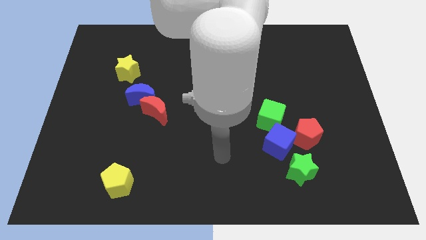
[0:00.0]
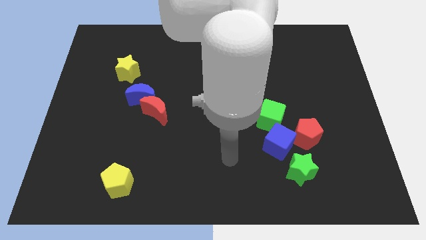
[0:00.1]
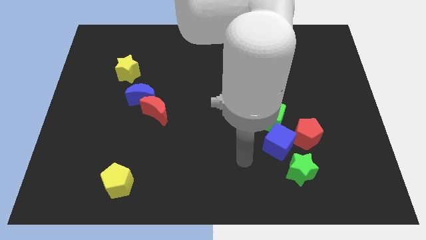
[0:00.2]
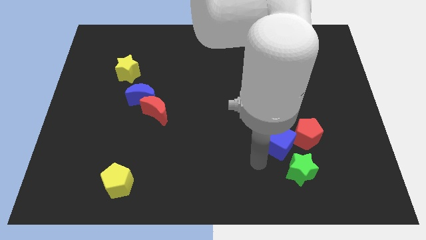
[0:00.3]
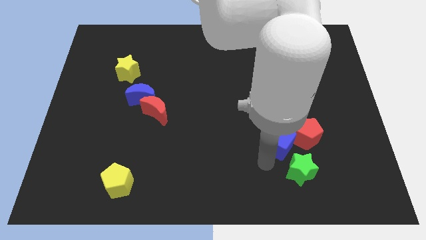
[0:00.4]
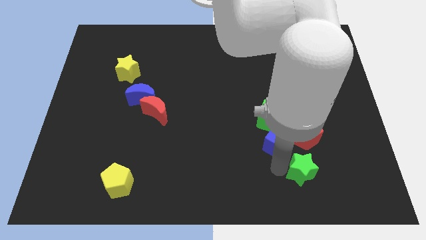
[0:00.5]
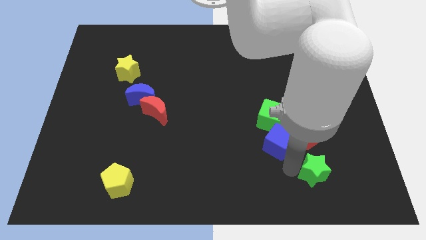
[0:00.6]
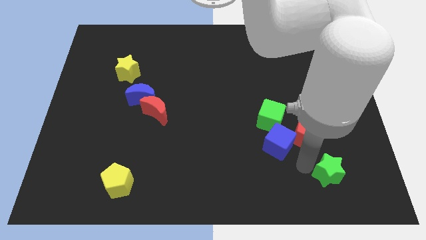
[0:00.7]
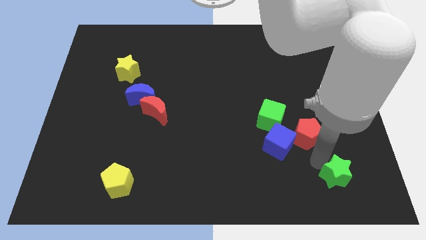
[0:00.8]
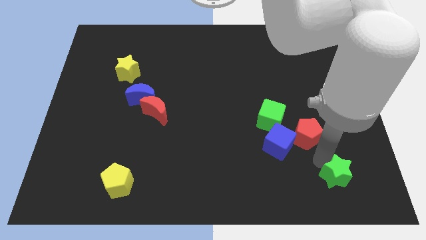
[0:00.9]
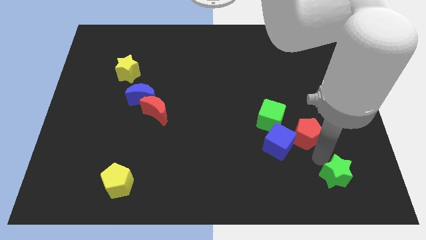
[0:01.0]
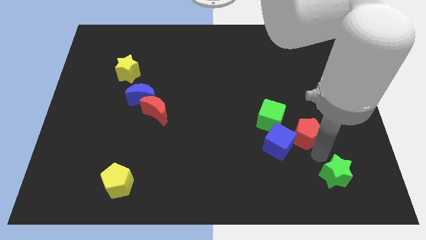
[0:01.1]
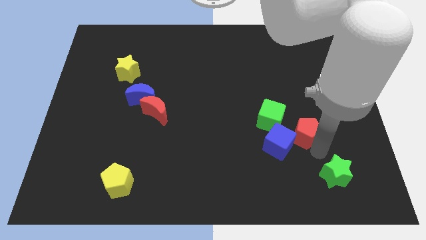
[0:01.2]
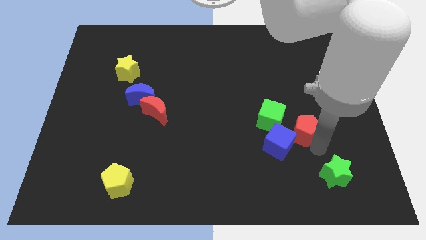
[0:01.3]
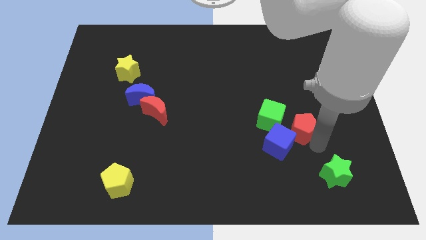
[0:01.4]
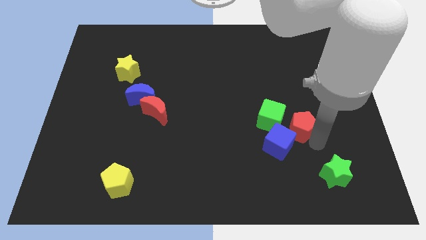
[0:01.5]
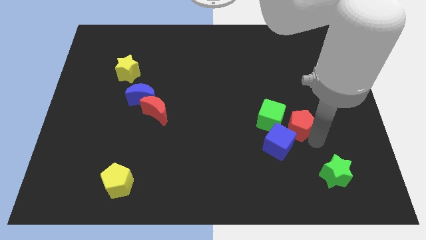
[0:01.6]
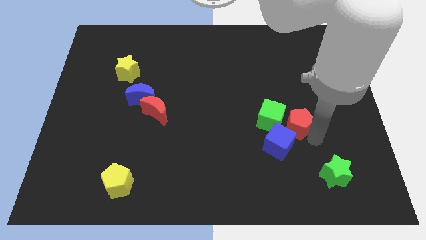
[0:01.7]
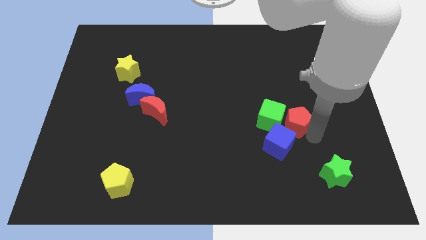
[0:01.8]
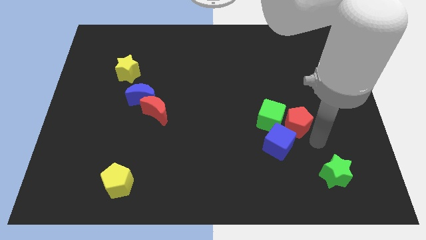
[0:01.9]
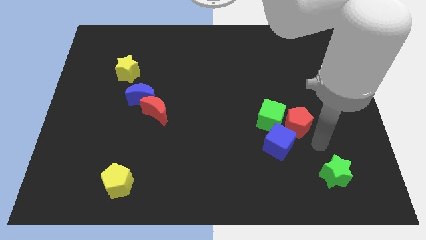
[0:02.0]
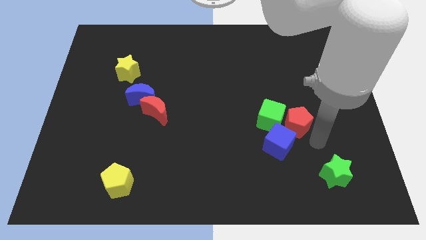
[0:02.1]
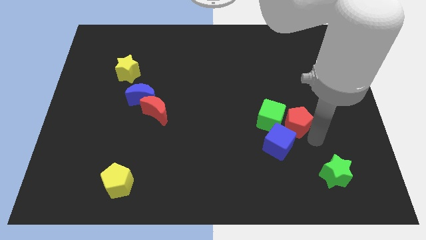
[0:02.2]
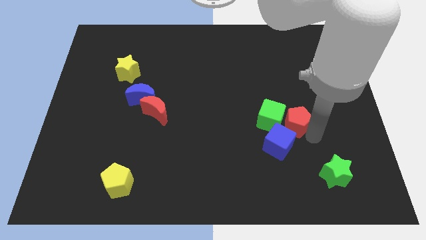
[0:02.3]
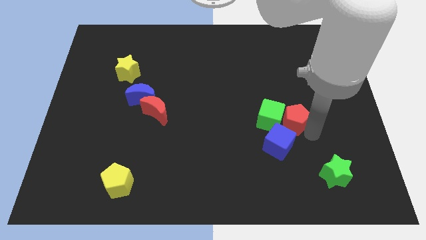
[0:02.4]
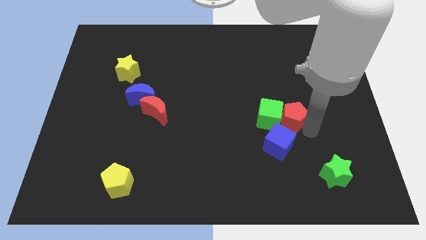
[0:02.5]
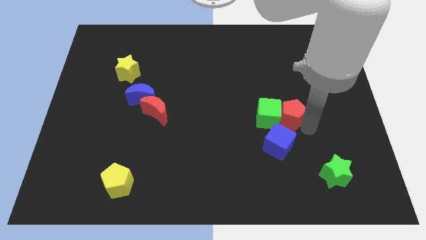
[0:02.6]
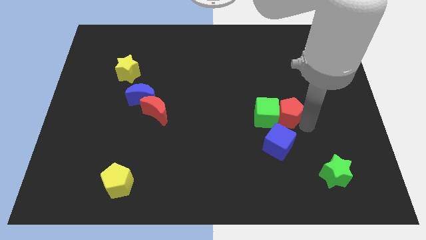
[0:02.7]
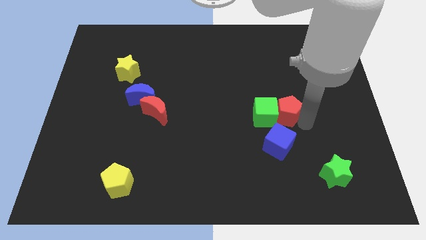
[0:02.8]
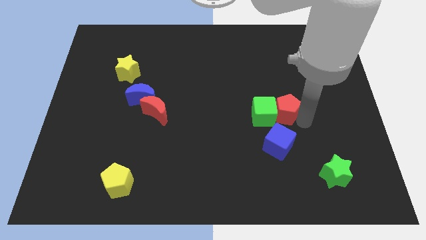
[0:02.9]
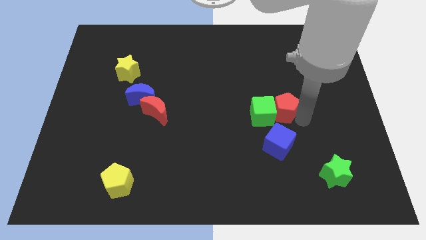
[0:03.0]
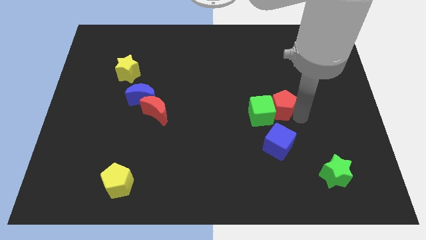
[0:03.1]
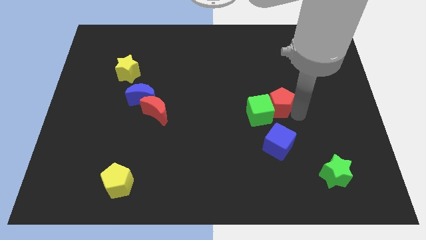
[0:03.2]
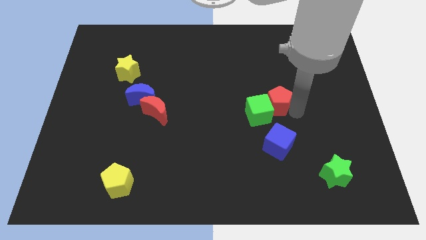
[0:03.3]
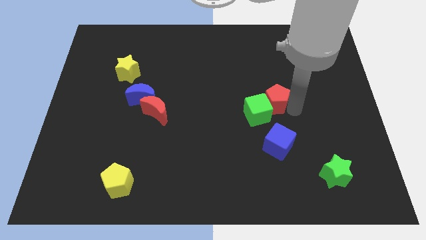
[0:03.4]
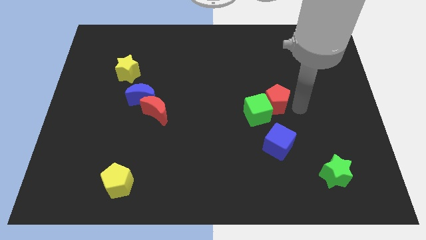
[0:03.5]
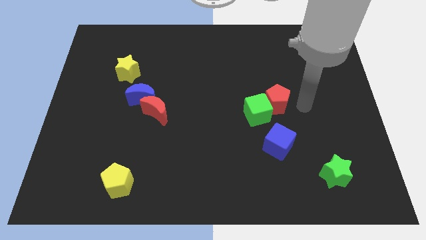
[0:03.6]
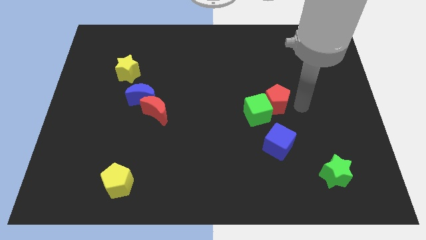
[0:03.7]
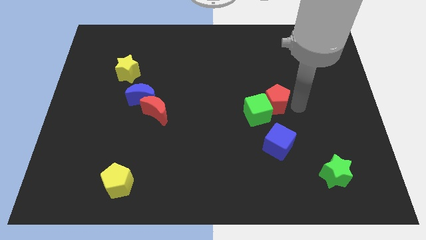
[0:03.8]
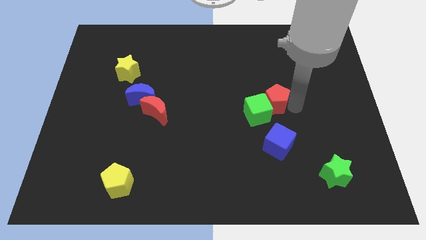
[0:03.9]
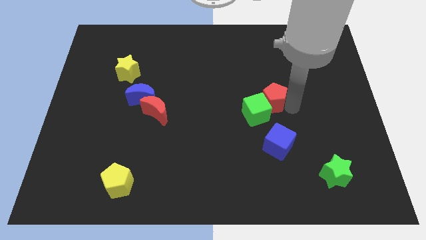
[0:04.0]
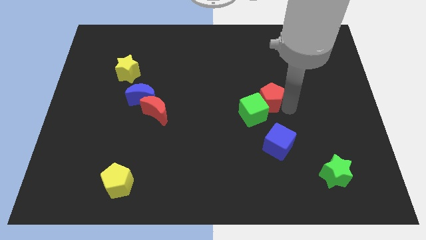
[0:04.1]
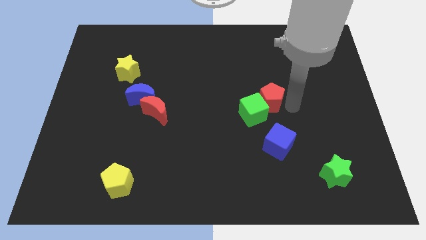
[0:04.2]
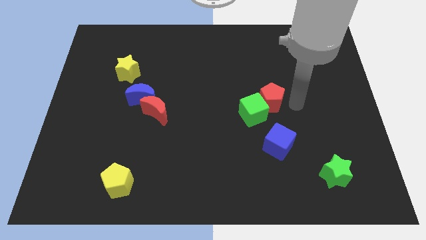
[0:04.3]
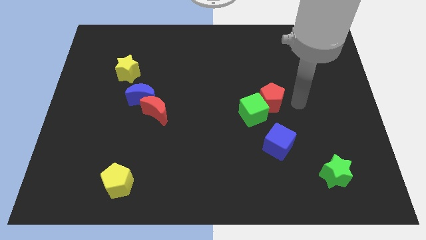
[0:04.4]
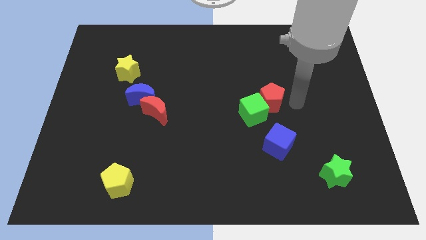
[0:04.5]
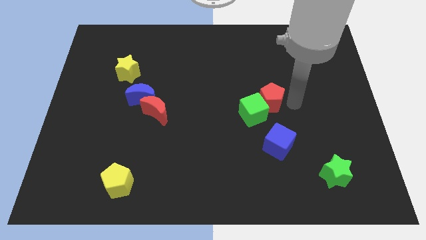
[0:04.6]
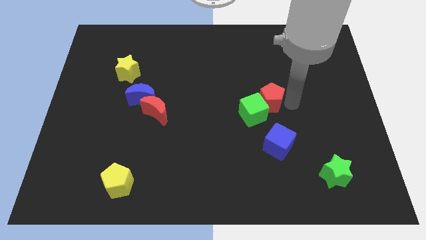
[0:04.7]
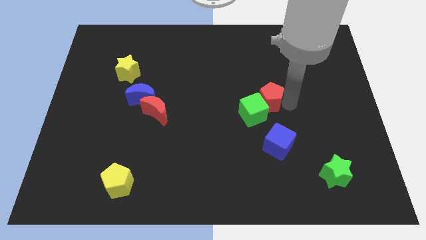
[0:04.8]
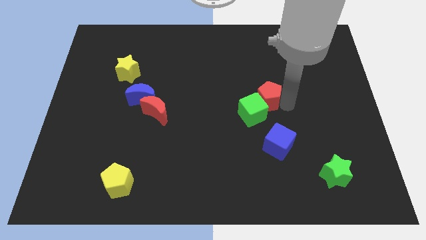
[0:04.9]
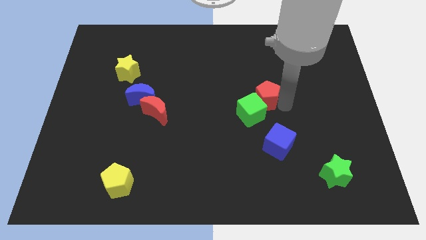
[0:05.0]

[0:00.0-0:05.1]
put the red pentagon to the center

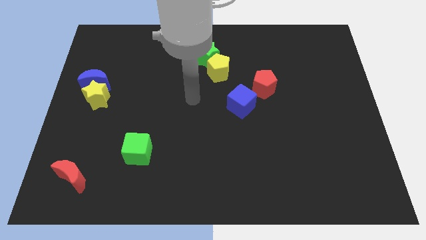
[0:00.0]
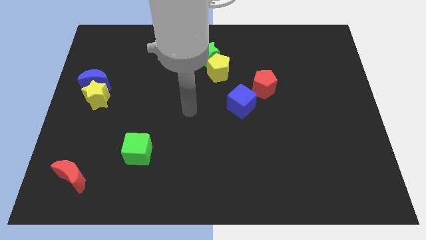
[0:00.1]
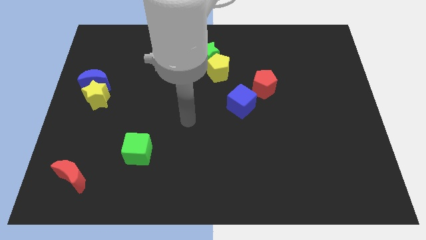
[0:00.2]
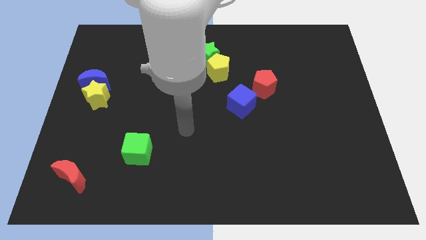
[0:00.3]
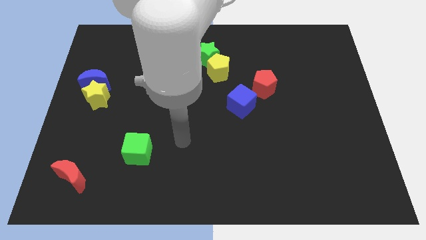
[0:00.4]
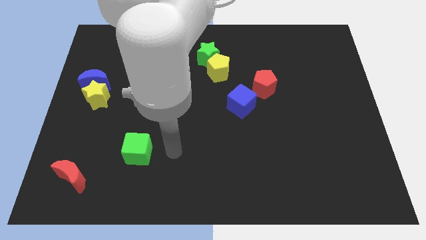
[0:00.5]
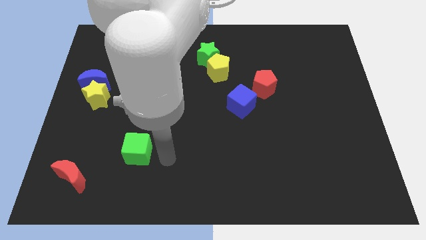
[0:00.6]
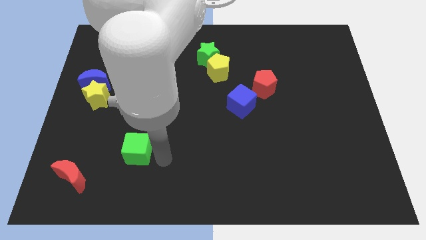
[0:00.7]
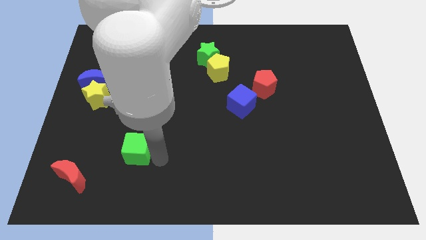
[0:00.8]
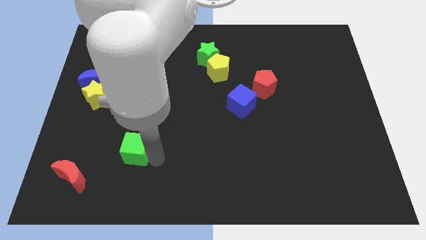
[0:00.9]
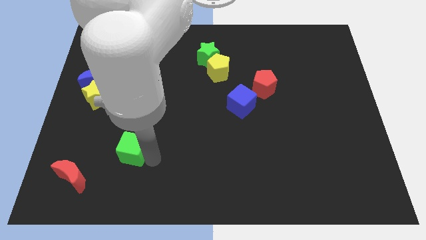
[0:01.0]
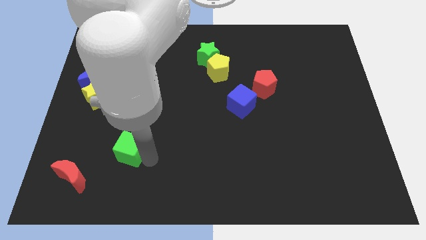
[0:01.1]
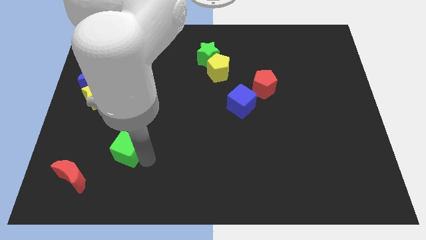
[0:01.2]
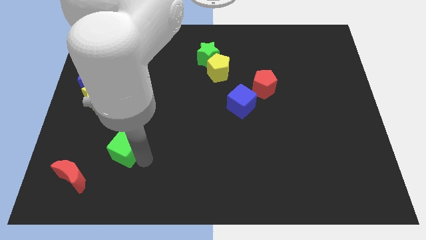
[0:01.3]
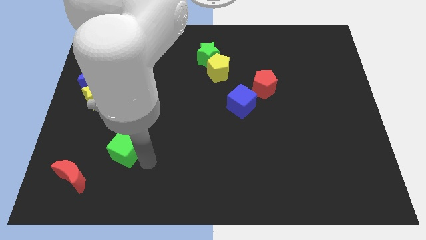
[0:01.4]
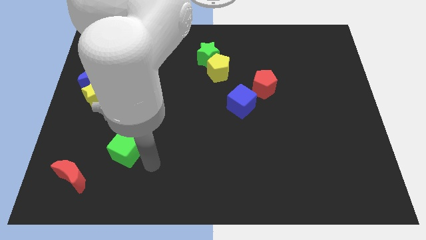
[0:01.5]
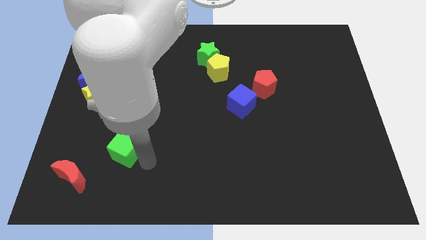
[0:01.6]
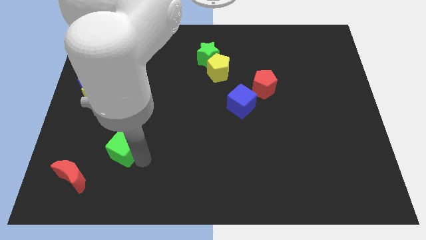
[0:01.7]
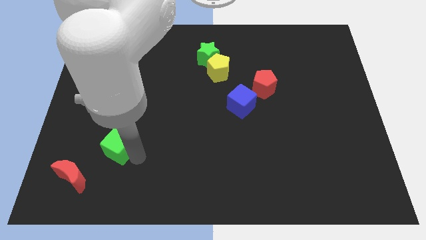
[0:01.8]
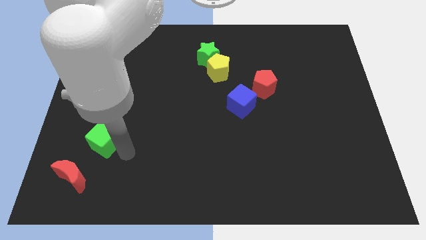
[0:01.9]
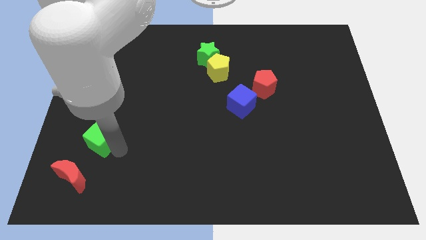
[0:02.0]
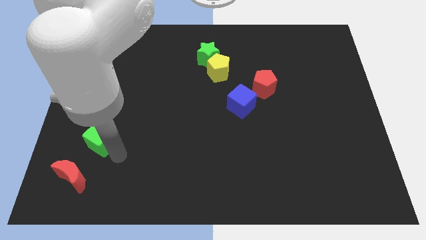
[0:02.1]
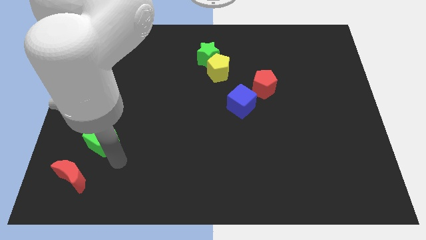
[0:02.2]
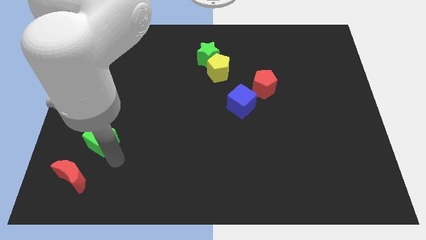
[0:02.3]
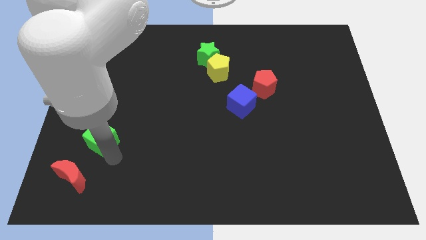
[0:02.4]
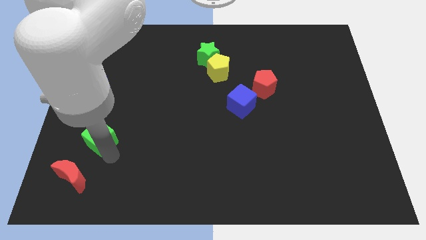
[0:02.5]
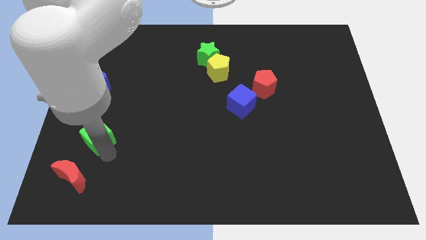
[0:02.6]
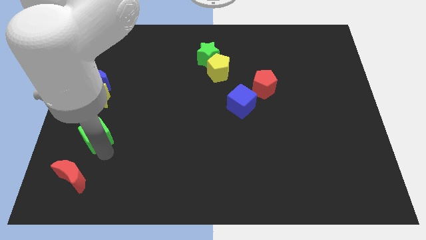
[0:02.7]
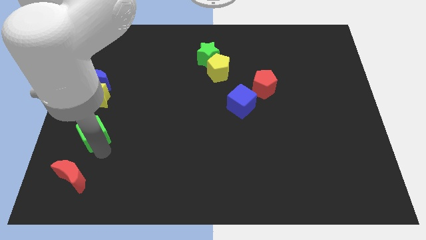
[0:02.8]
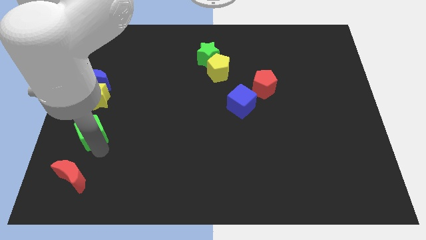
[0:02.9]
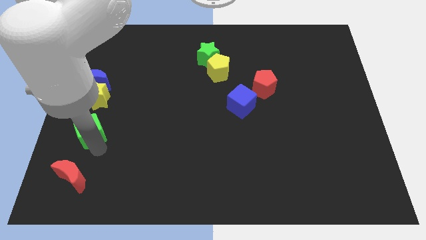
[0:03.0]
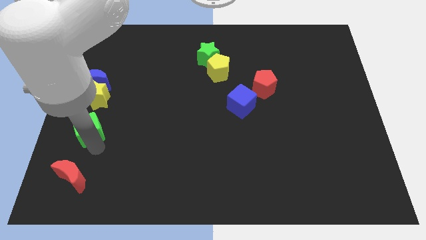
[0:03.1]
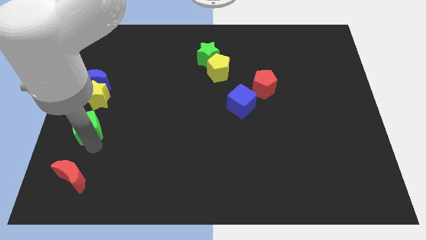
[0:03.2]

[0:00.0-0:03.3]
slide the green cube to the center left
